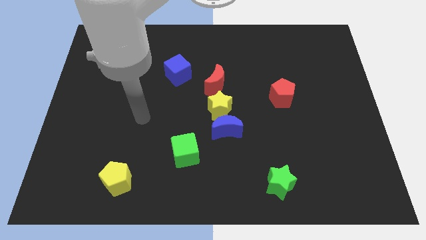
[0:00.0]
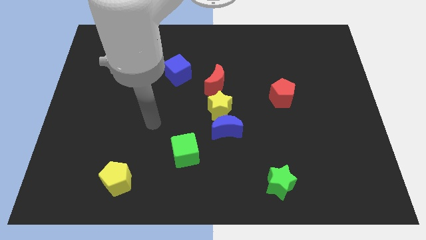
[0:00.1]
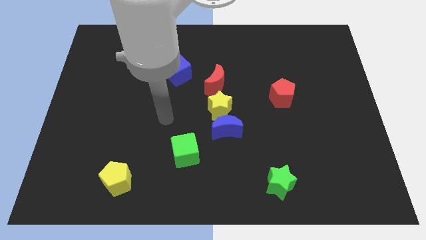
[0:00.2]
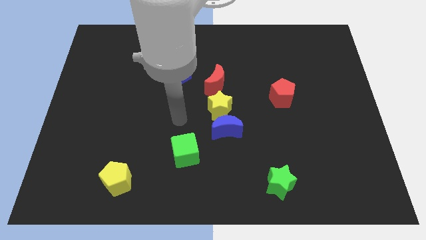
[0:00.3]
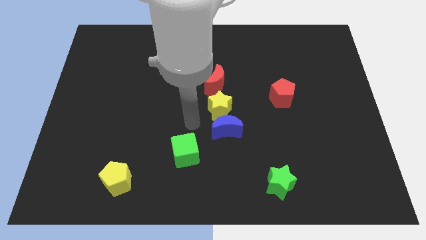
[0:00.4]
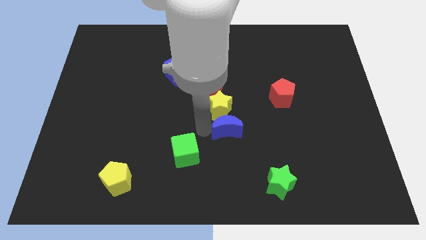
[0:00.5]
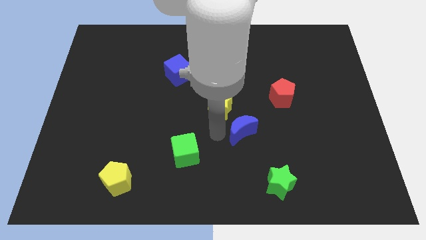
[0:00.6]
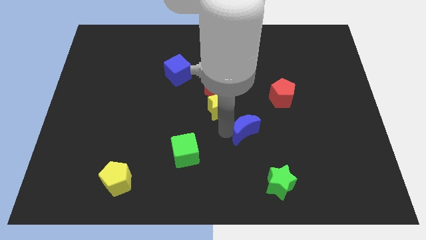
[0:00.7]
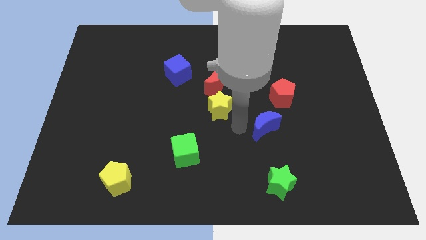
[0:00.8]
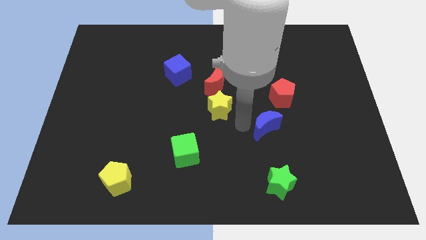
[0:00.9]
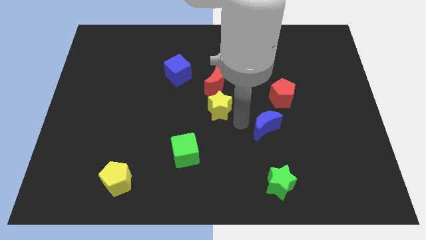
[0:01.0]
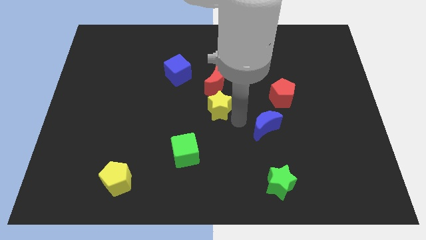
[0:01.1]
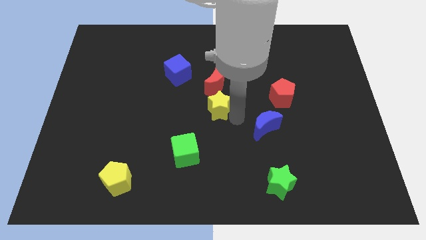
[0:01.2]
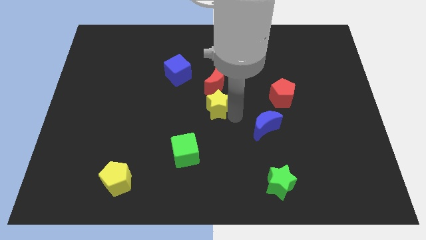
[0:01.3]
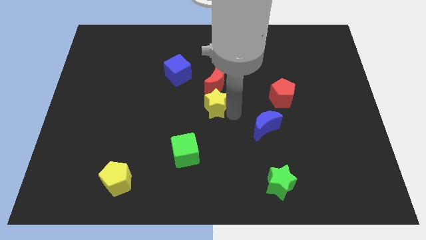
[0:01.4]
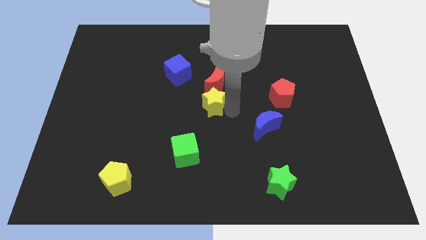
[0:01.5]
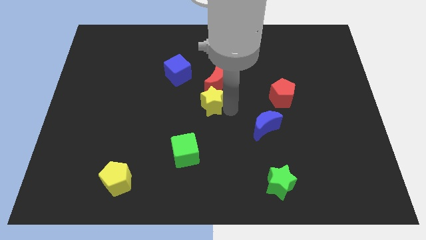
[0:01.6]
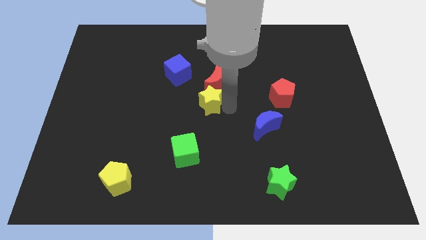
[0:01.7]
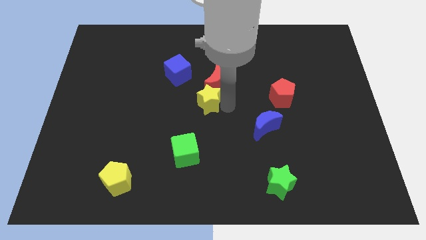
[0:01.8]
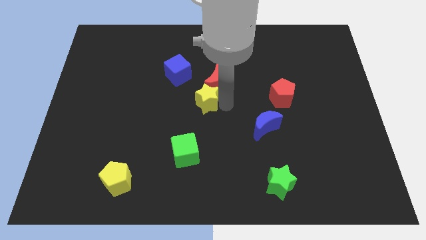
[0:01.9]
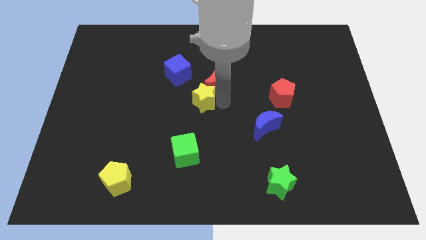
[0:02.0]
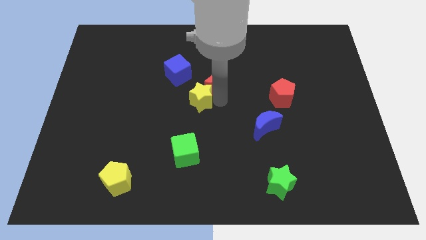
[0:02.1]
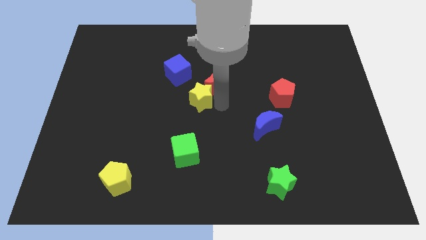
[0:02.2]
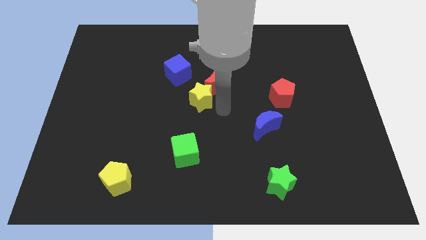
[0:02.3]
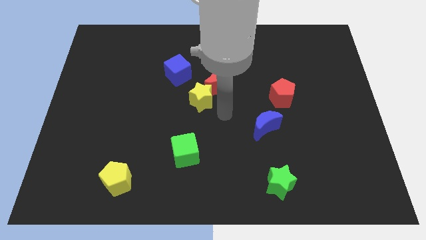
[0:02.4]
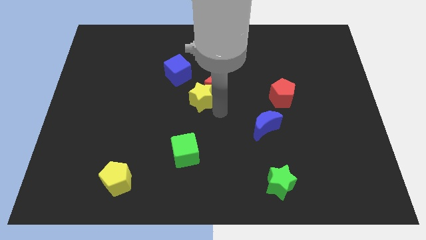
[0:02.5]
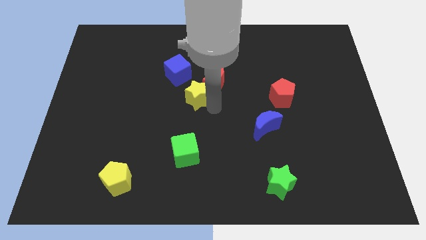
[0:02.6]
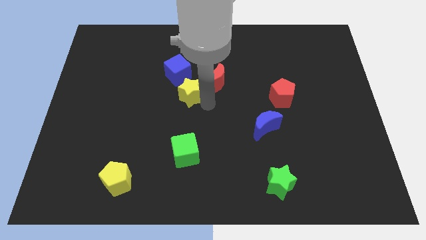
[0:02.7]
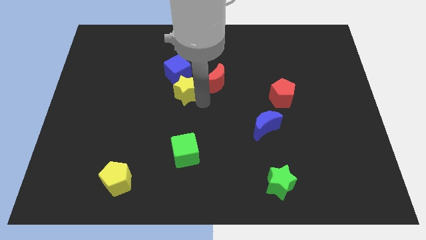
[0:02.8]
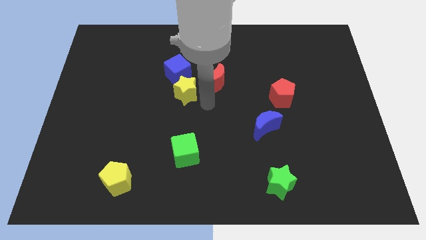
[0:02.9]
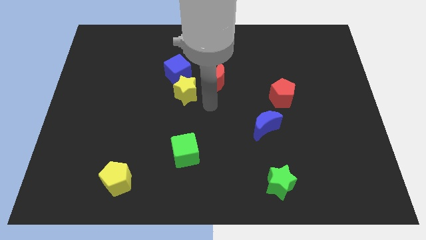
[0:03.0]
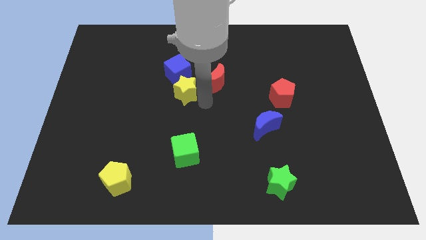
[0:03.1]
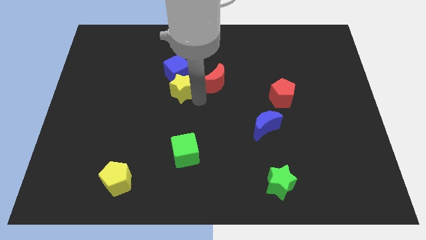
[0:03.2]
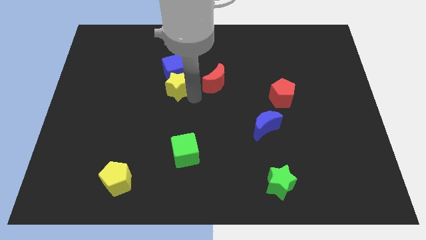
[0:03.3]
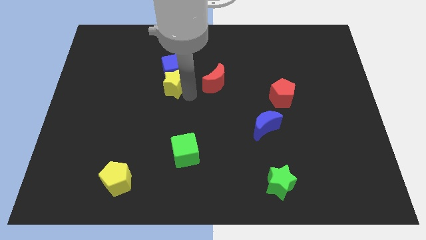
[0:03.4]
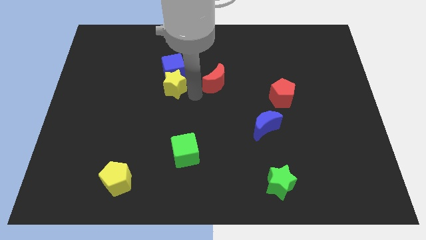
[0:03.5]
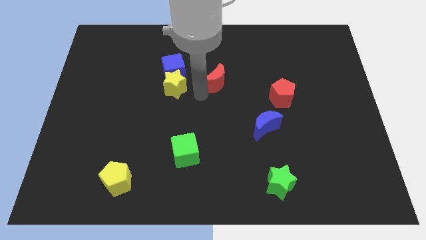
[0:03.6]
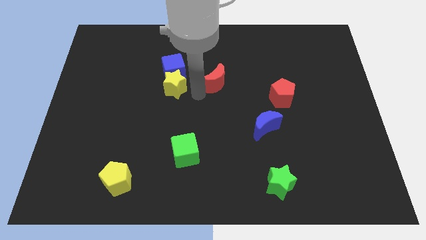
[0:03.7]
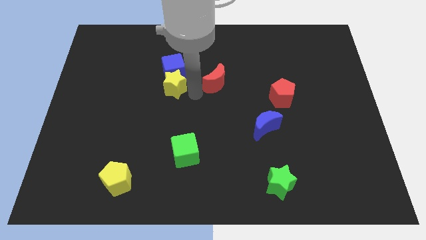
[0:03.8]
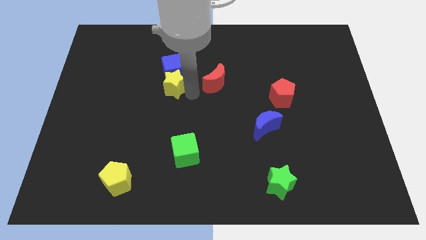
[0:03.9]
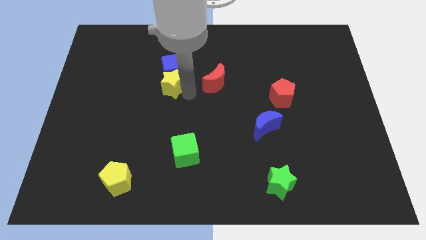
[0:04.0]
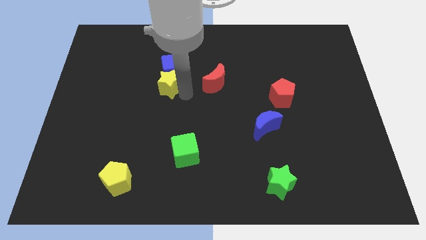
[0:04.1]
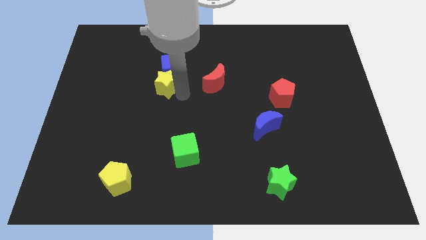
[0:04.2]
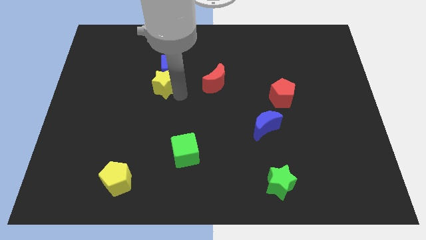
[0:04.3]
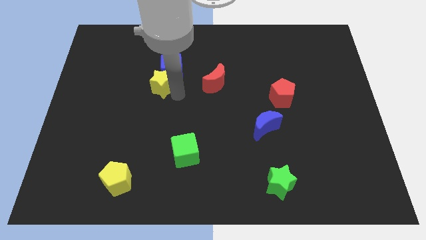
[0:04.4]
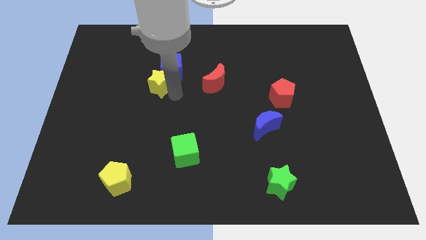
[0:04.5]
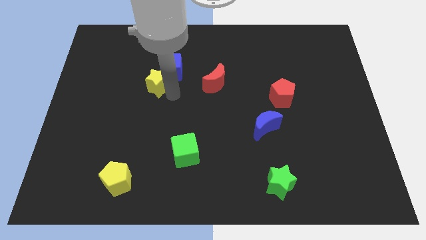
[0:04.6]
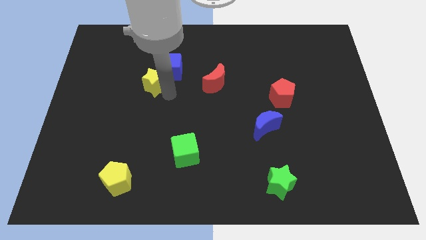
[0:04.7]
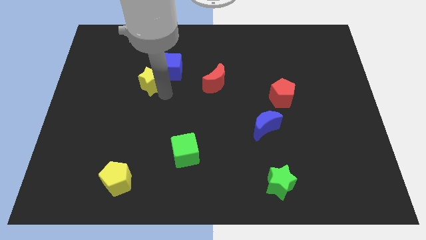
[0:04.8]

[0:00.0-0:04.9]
push the yellow star to the left of the blue cube

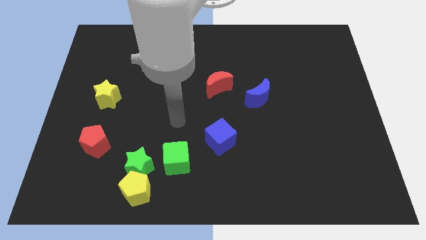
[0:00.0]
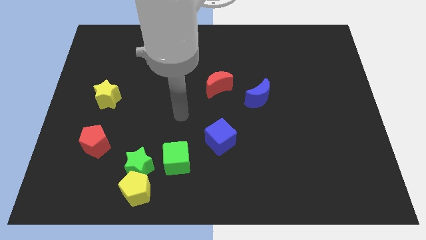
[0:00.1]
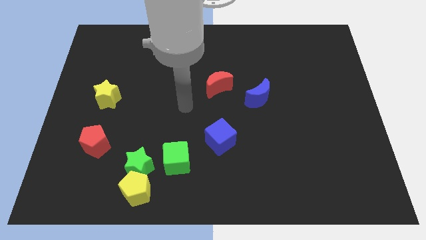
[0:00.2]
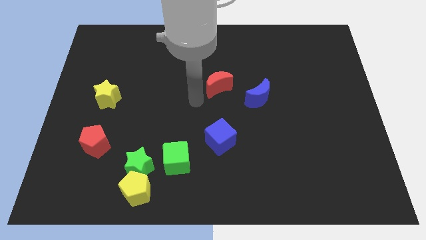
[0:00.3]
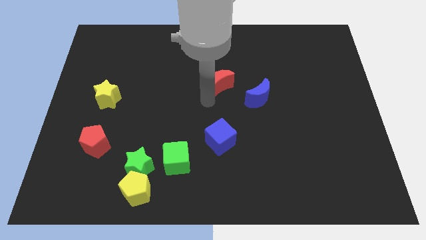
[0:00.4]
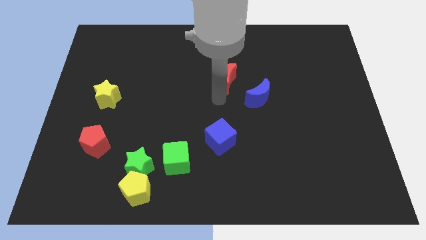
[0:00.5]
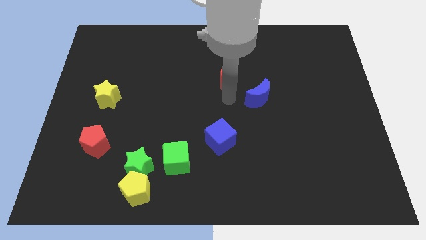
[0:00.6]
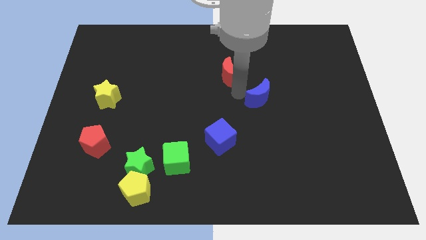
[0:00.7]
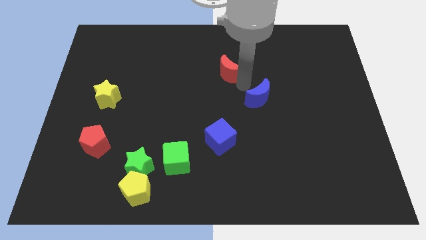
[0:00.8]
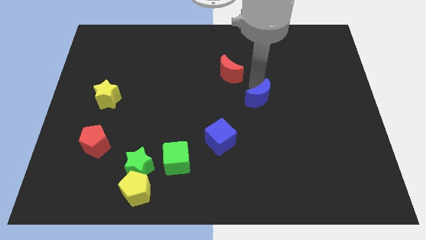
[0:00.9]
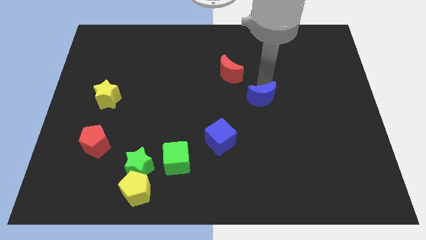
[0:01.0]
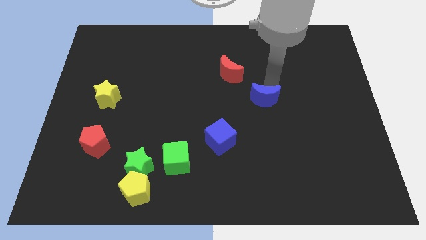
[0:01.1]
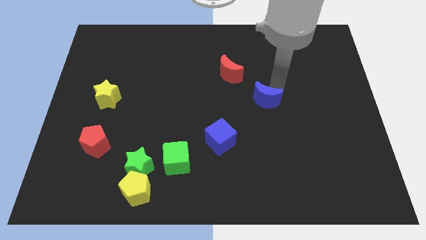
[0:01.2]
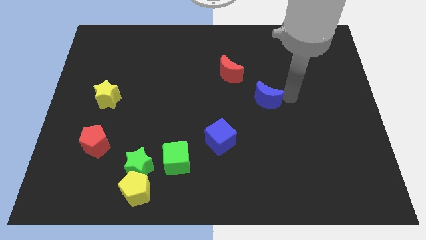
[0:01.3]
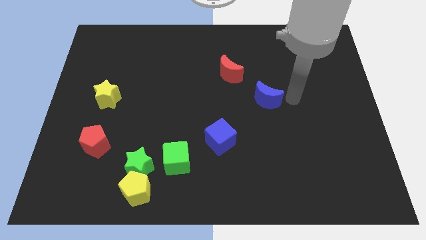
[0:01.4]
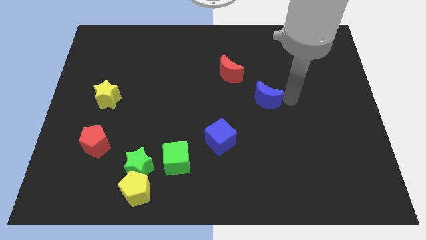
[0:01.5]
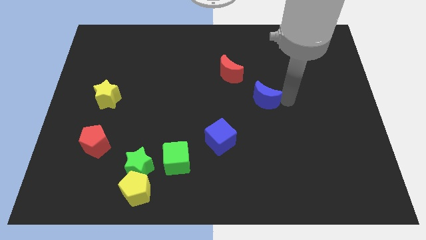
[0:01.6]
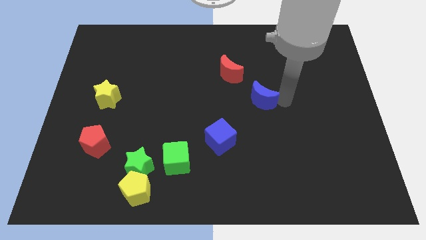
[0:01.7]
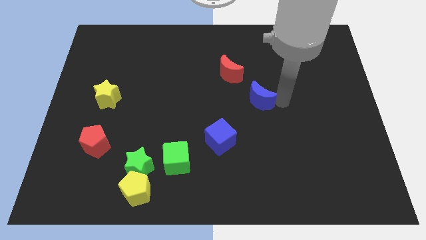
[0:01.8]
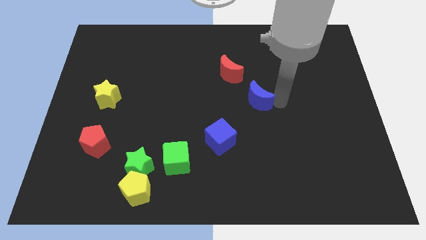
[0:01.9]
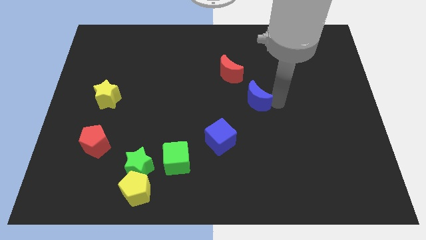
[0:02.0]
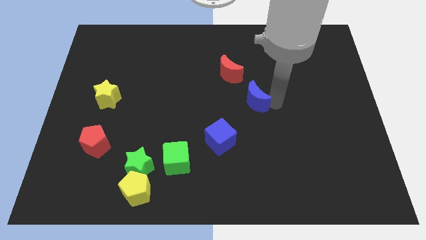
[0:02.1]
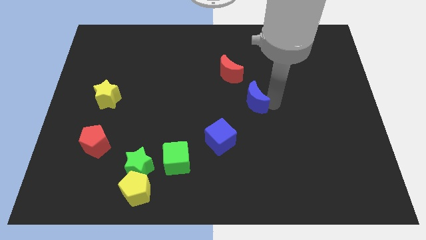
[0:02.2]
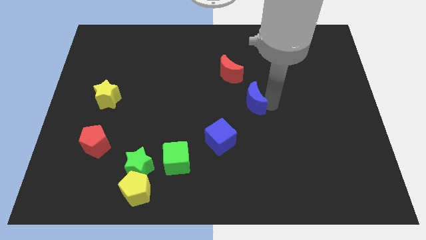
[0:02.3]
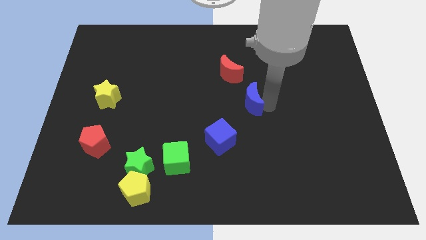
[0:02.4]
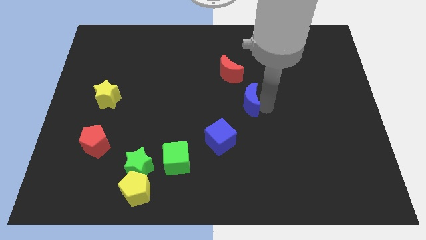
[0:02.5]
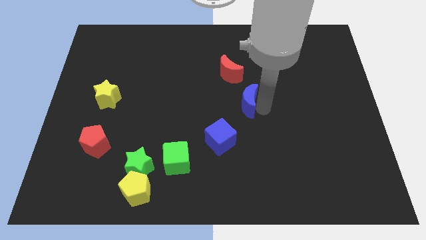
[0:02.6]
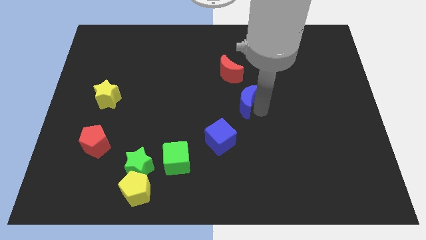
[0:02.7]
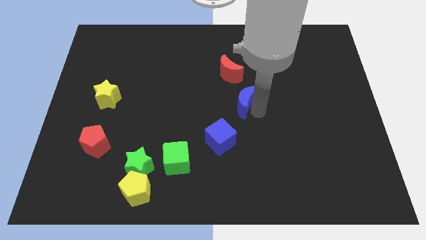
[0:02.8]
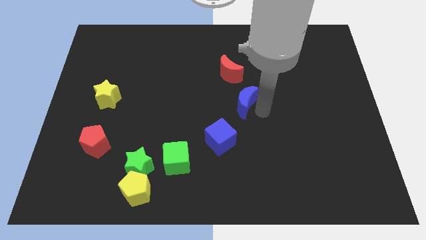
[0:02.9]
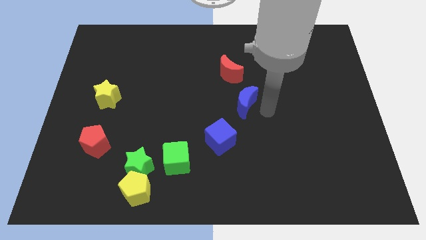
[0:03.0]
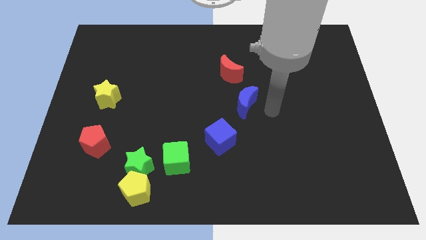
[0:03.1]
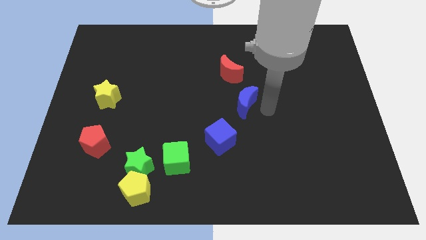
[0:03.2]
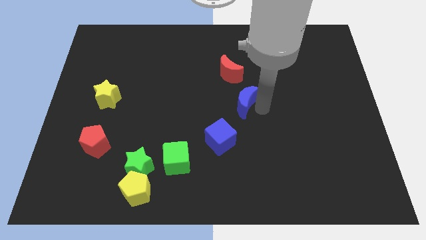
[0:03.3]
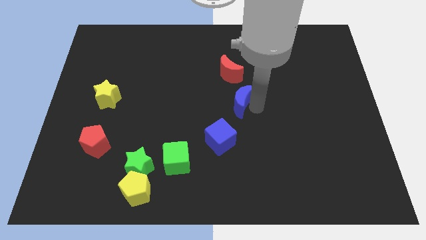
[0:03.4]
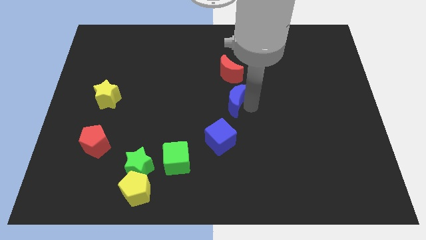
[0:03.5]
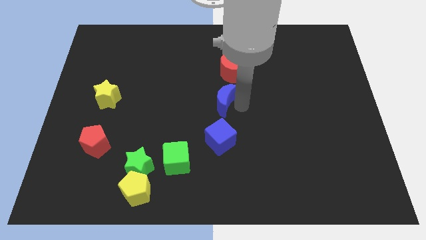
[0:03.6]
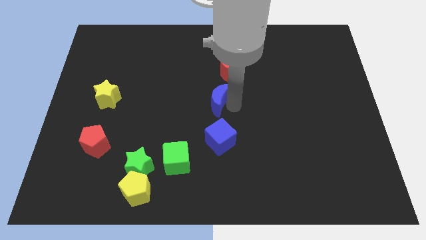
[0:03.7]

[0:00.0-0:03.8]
move the blue moon to the bottom left of the red moon
